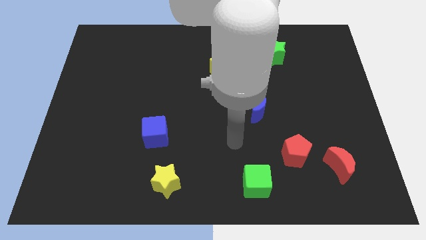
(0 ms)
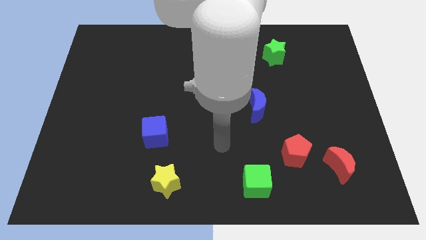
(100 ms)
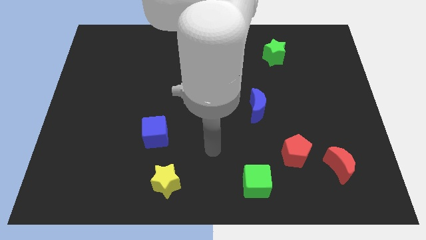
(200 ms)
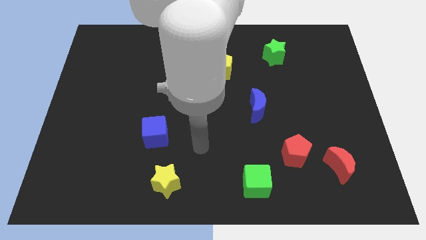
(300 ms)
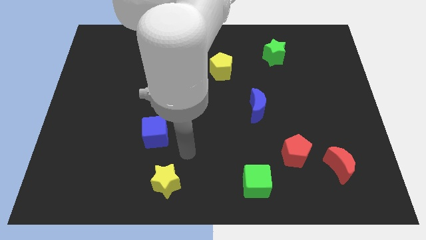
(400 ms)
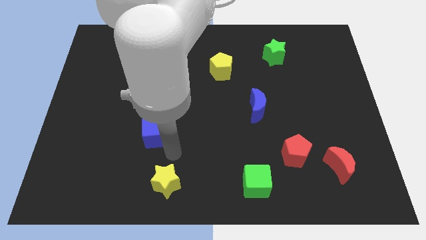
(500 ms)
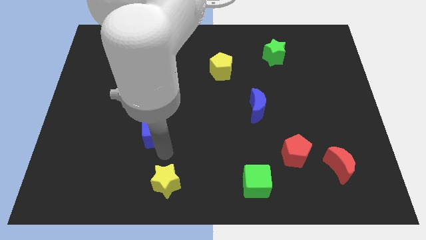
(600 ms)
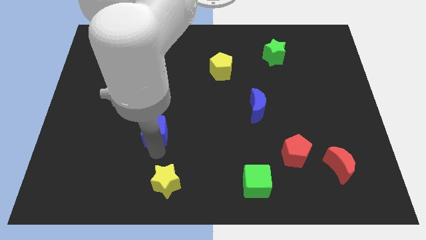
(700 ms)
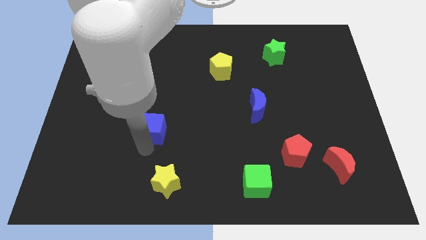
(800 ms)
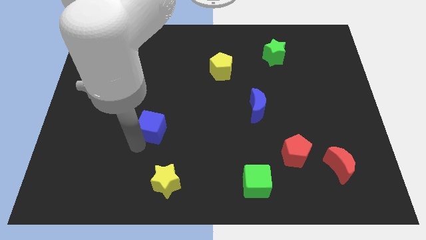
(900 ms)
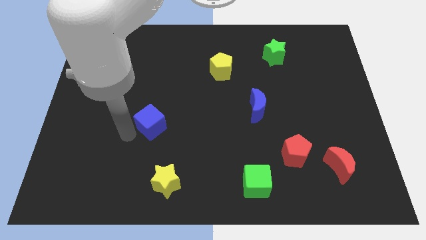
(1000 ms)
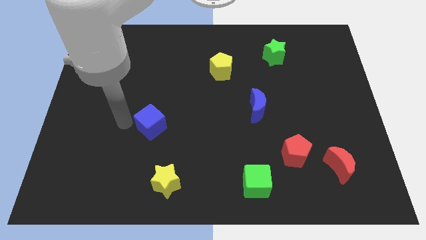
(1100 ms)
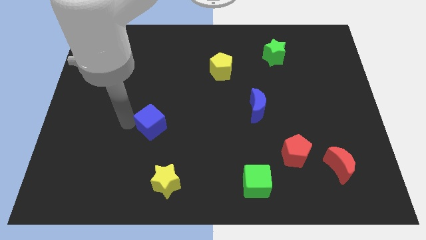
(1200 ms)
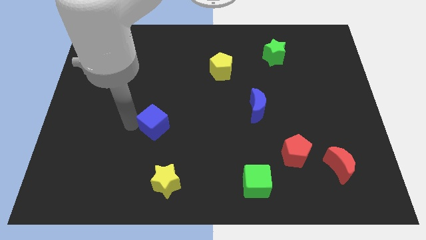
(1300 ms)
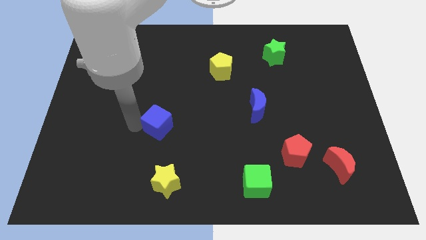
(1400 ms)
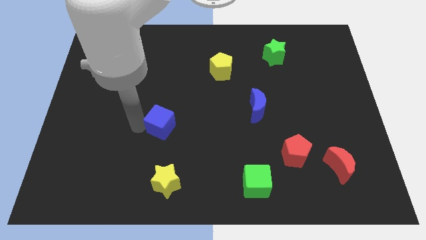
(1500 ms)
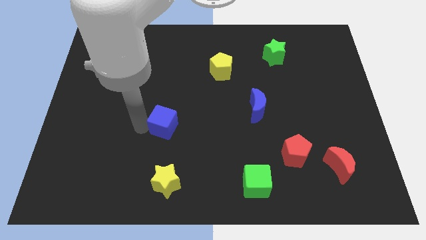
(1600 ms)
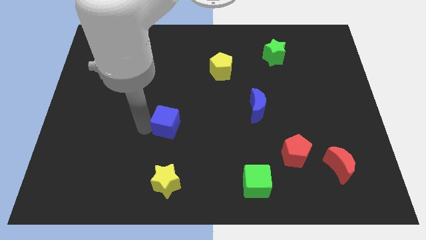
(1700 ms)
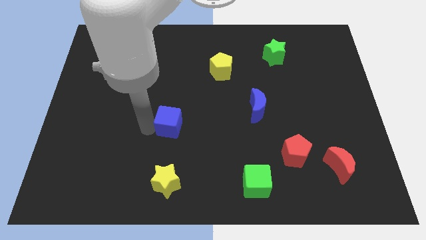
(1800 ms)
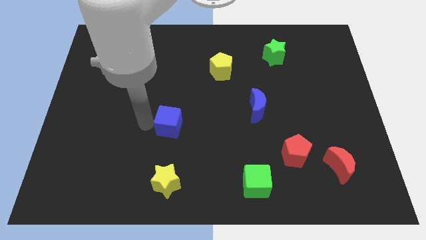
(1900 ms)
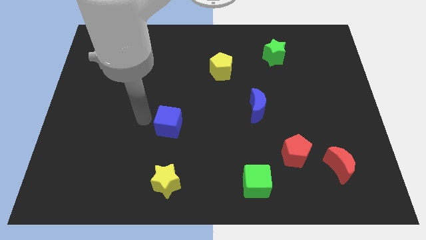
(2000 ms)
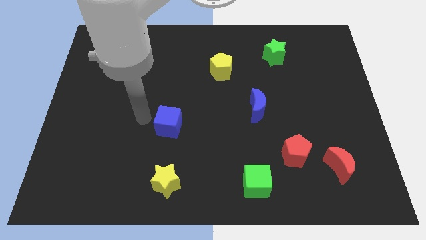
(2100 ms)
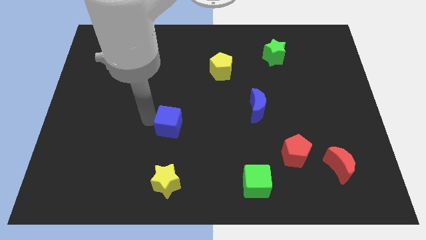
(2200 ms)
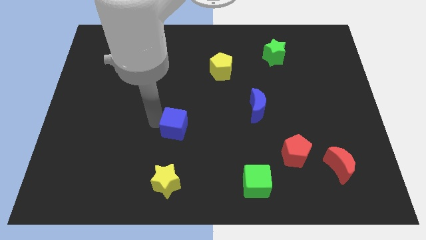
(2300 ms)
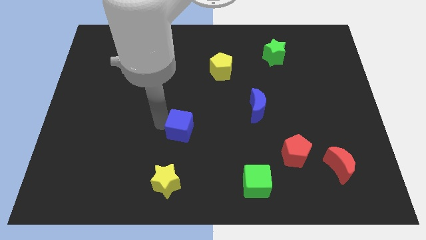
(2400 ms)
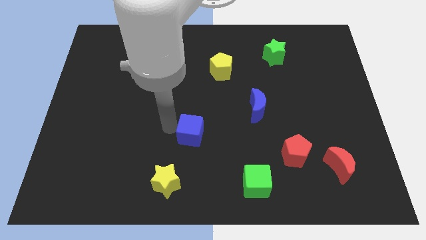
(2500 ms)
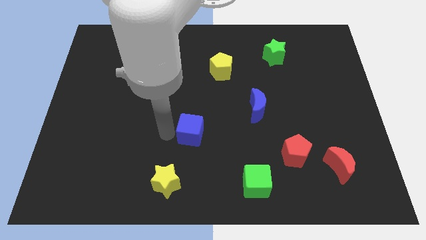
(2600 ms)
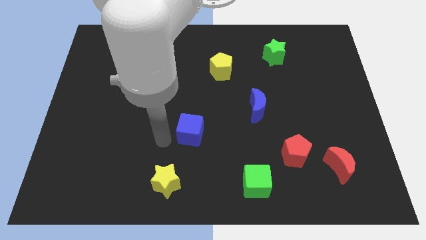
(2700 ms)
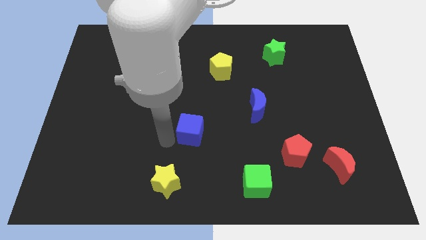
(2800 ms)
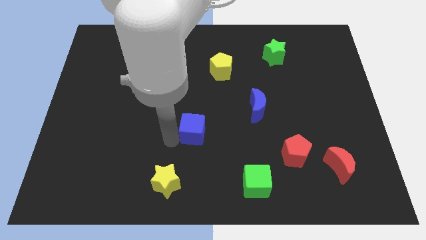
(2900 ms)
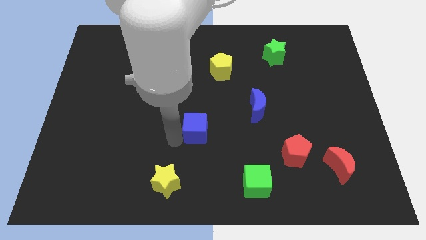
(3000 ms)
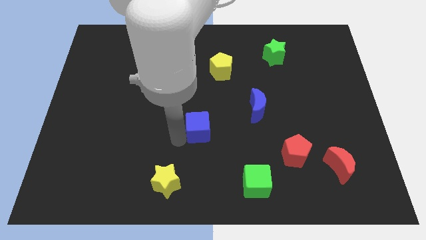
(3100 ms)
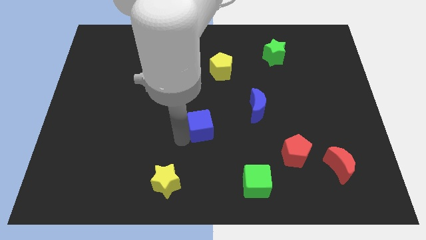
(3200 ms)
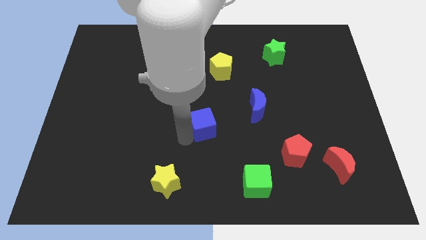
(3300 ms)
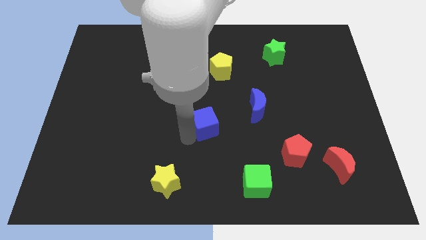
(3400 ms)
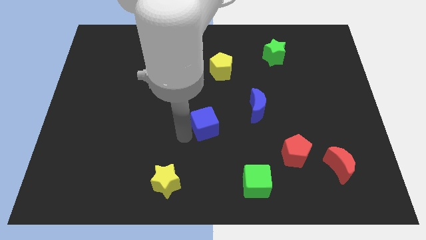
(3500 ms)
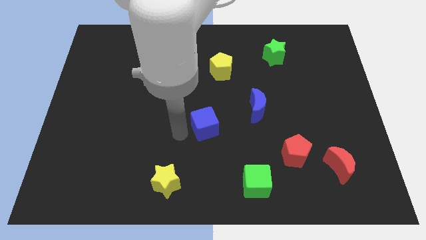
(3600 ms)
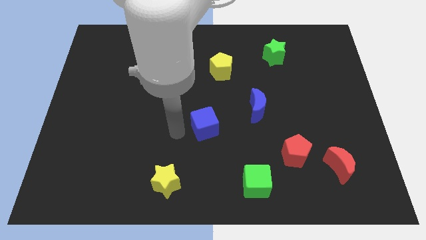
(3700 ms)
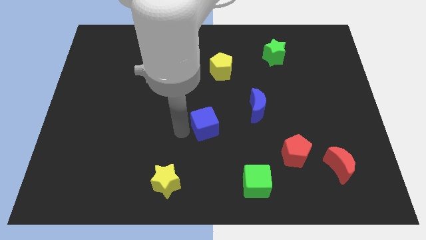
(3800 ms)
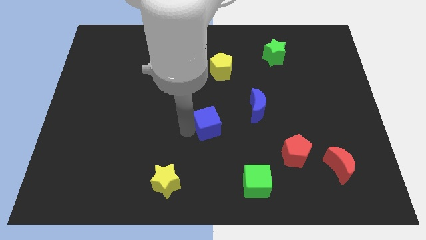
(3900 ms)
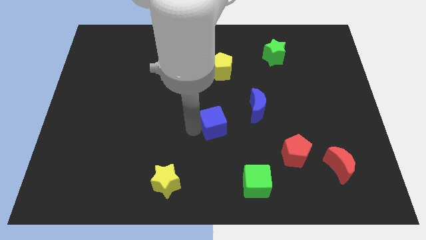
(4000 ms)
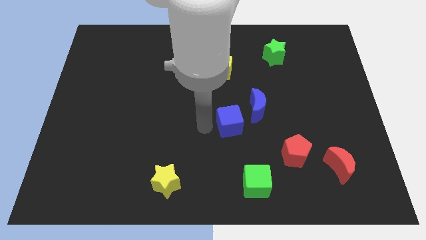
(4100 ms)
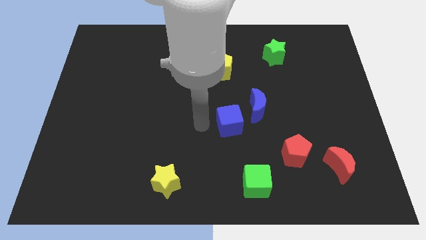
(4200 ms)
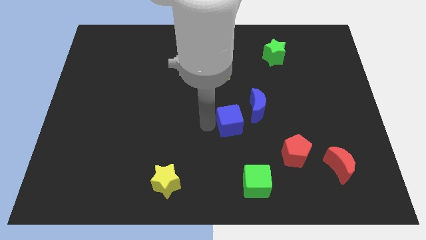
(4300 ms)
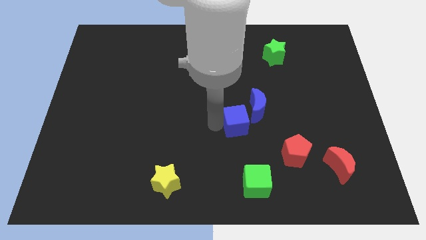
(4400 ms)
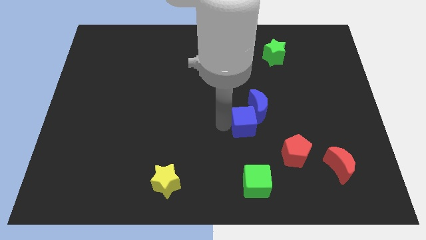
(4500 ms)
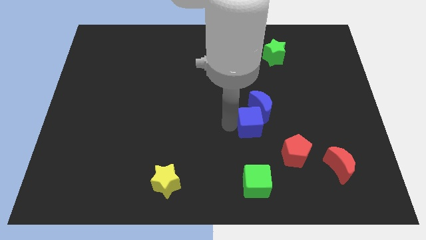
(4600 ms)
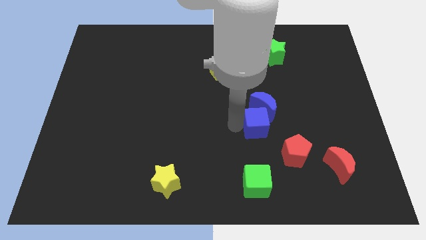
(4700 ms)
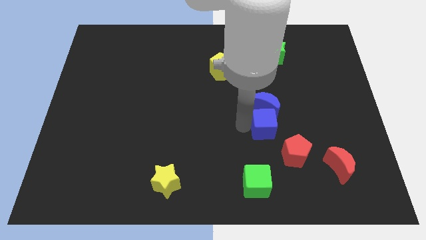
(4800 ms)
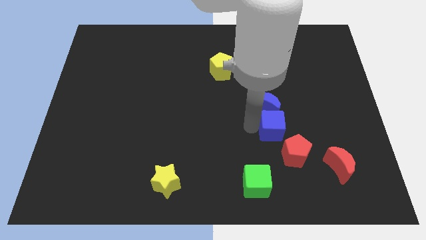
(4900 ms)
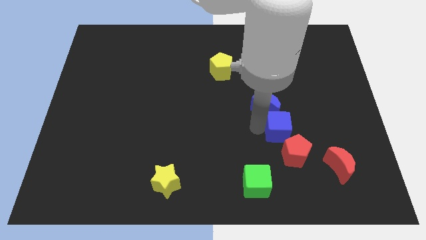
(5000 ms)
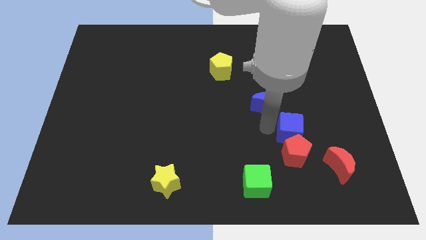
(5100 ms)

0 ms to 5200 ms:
move the blue cube to the top left of the red moon

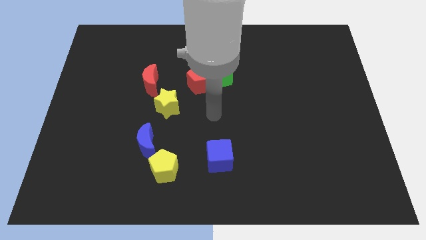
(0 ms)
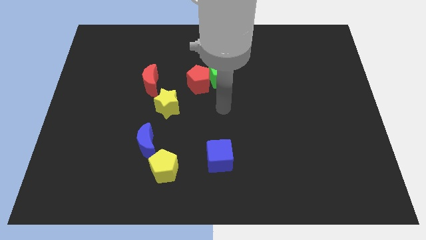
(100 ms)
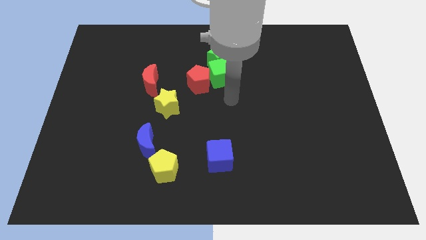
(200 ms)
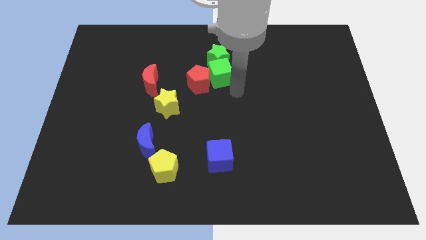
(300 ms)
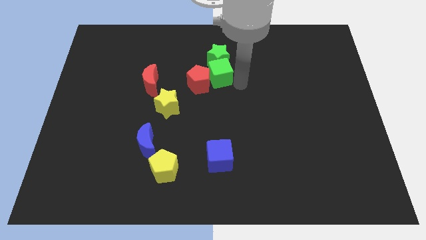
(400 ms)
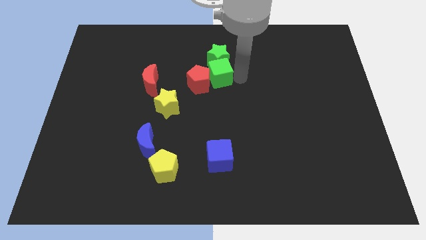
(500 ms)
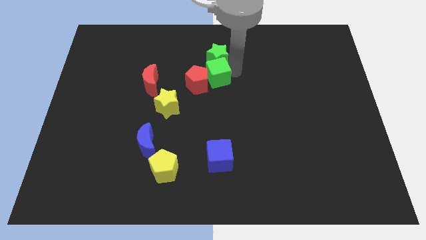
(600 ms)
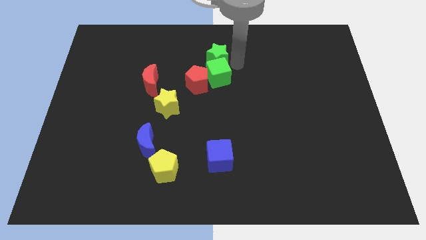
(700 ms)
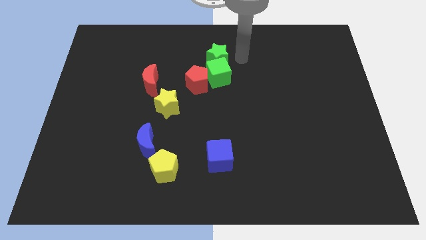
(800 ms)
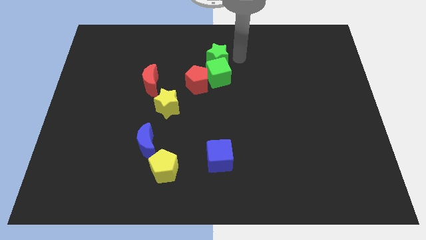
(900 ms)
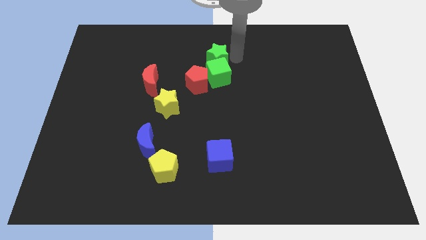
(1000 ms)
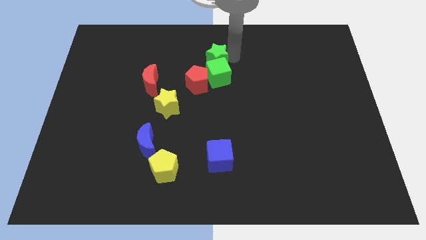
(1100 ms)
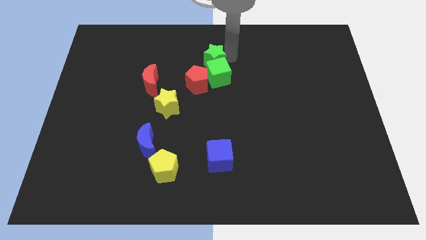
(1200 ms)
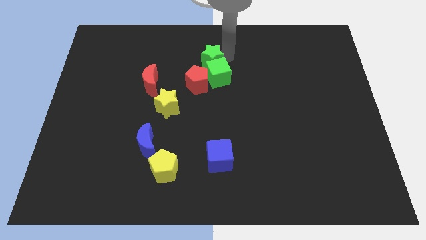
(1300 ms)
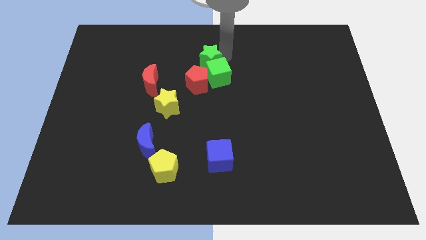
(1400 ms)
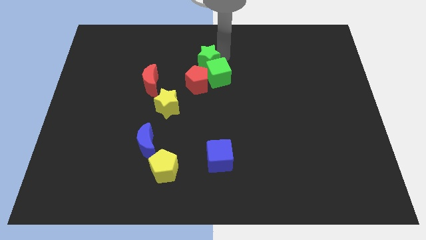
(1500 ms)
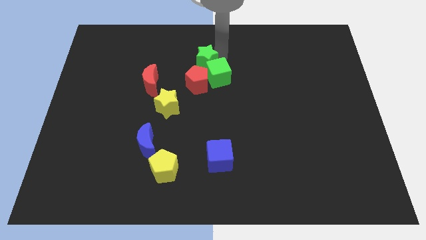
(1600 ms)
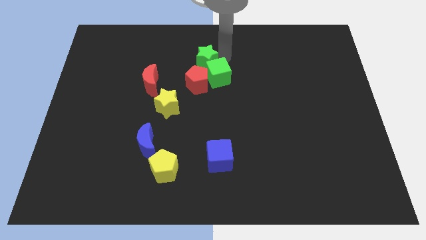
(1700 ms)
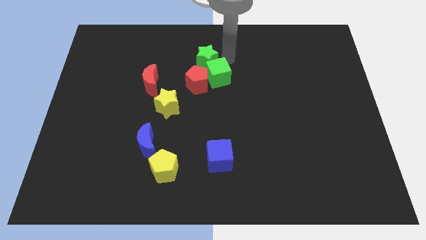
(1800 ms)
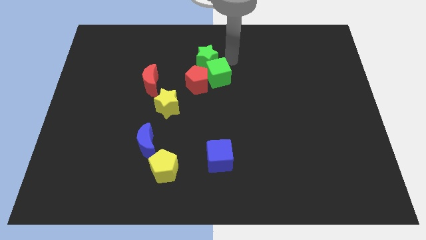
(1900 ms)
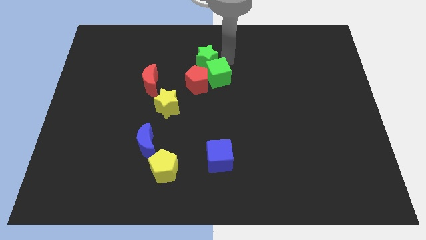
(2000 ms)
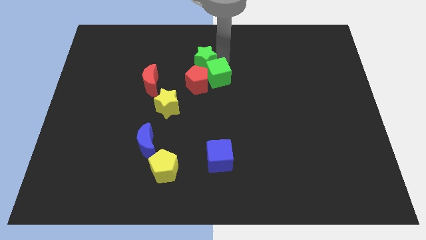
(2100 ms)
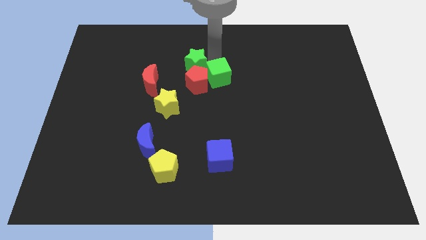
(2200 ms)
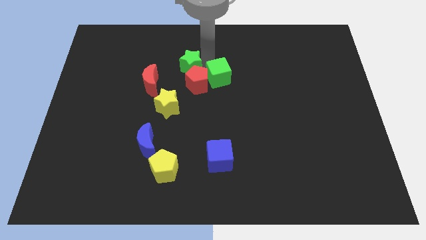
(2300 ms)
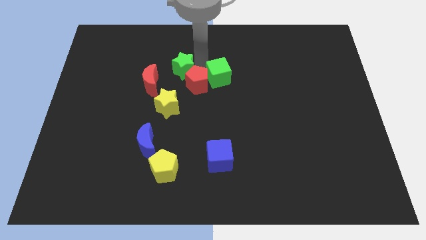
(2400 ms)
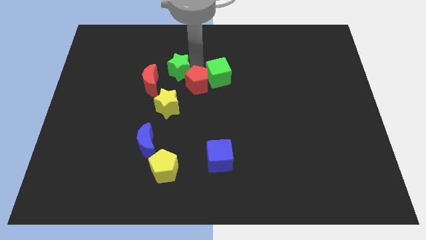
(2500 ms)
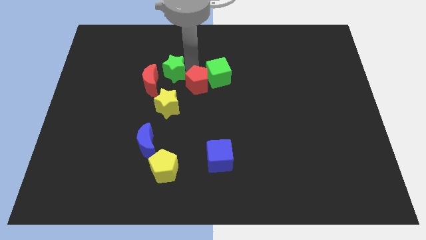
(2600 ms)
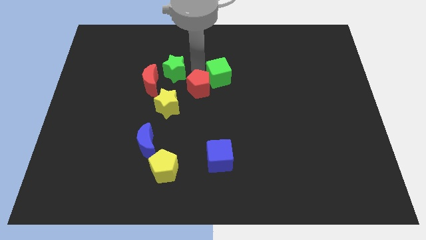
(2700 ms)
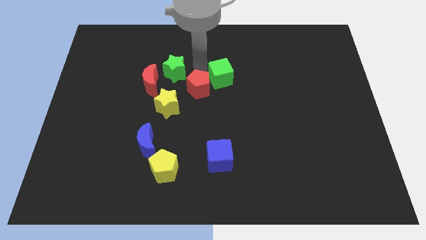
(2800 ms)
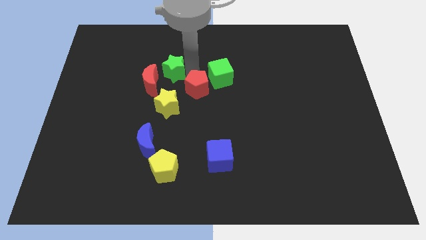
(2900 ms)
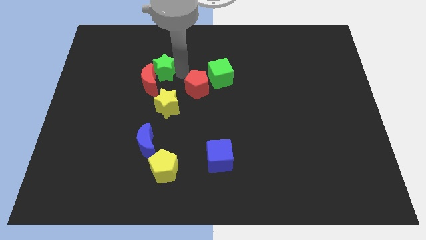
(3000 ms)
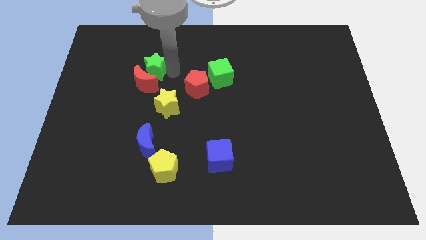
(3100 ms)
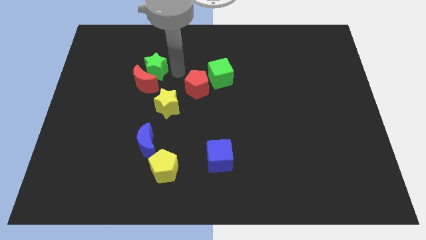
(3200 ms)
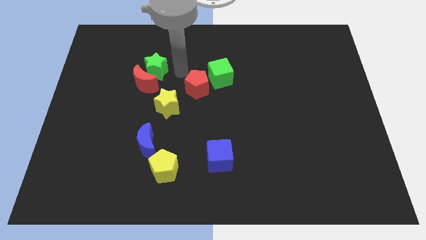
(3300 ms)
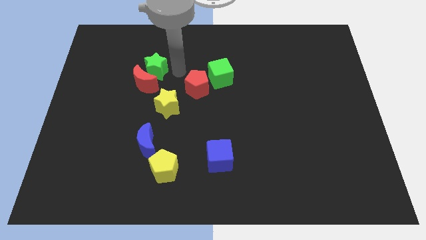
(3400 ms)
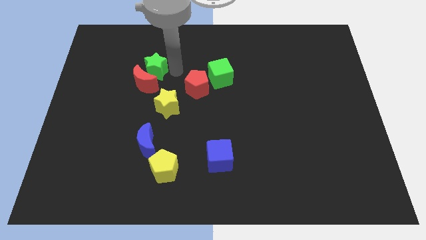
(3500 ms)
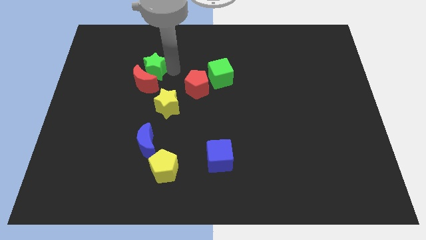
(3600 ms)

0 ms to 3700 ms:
put the green star to the top left side of the red moon
